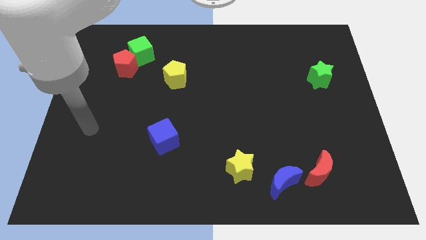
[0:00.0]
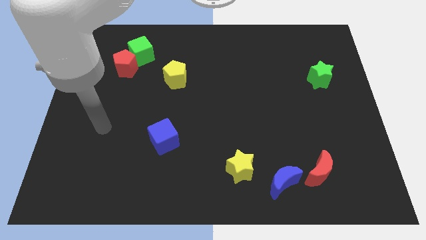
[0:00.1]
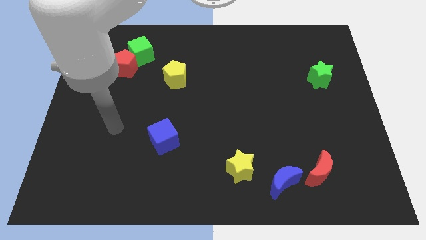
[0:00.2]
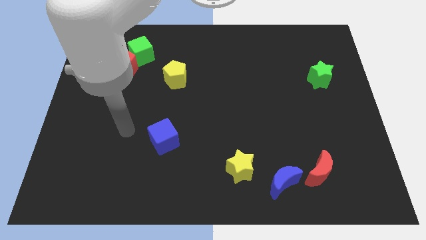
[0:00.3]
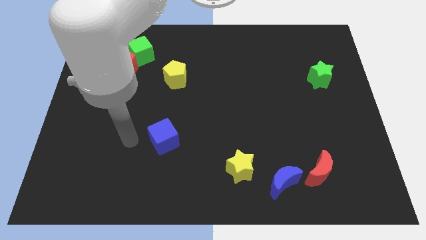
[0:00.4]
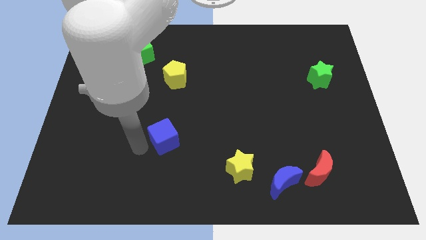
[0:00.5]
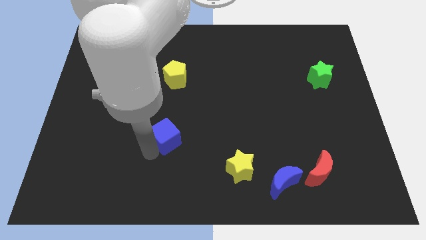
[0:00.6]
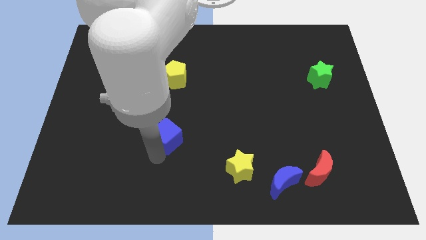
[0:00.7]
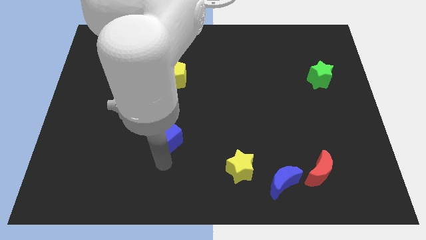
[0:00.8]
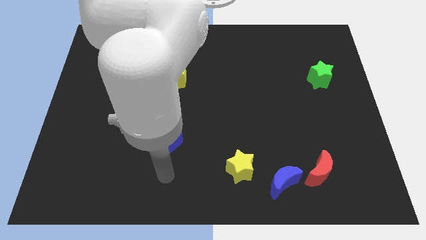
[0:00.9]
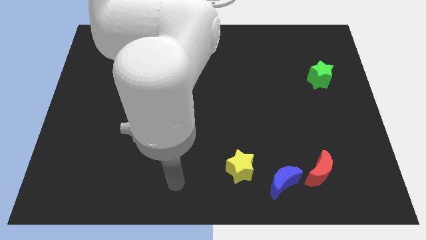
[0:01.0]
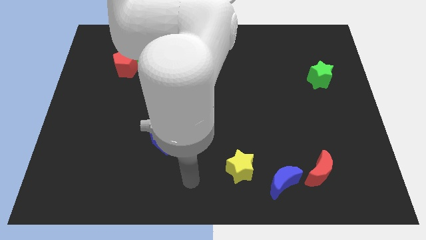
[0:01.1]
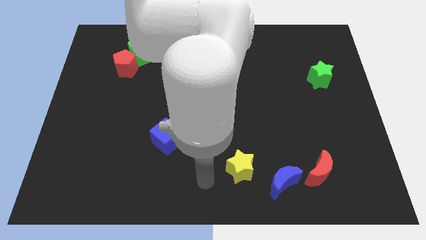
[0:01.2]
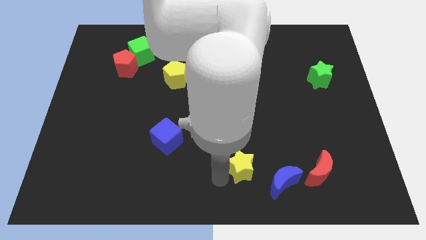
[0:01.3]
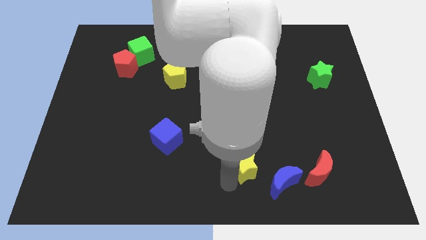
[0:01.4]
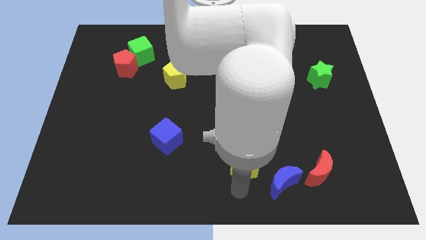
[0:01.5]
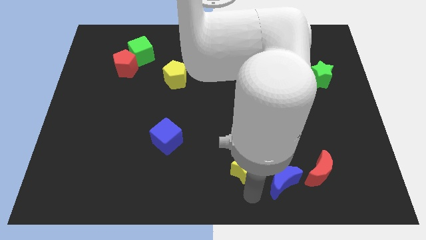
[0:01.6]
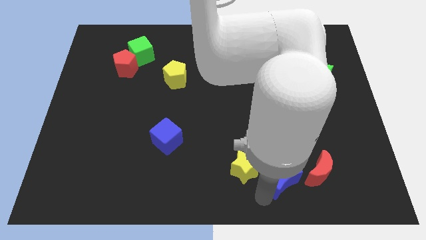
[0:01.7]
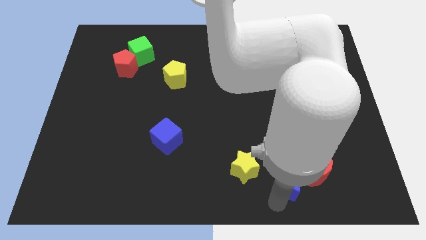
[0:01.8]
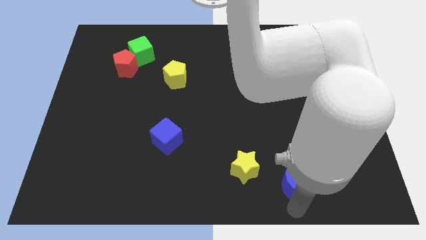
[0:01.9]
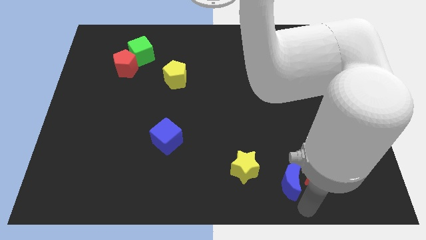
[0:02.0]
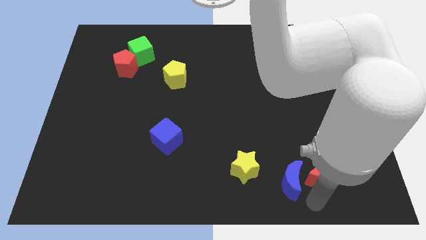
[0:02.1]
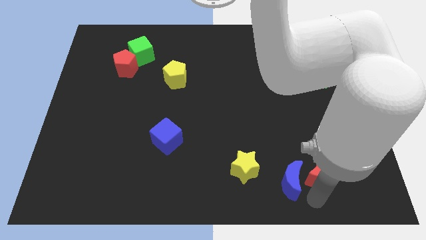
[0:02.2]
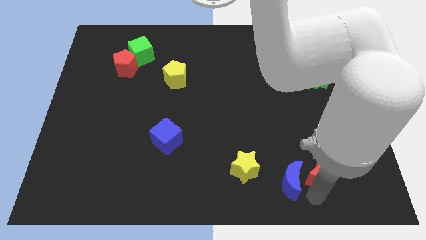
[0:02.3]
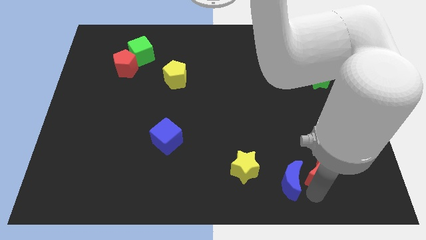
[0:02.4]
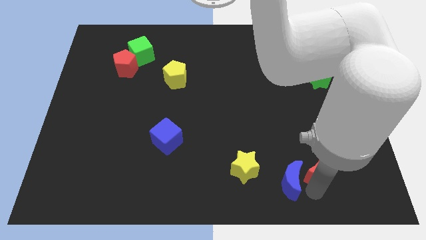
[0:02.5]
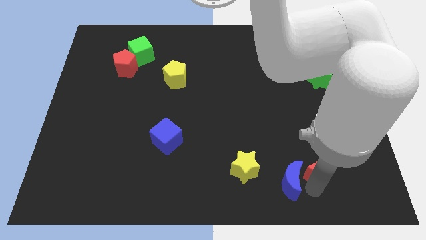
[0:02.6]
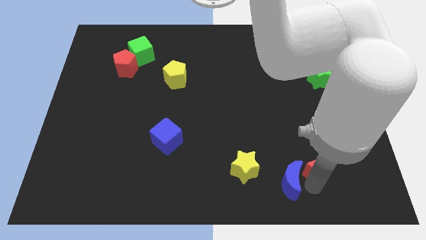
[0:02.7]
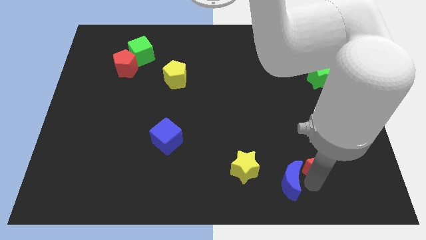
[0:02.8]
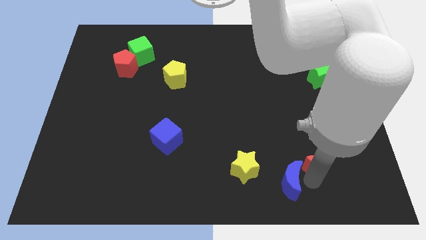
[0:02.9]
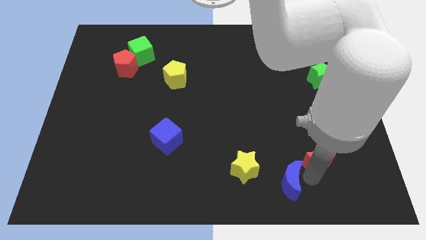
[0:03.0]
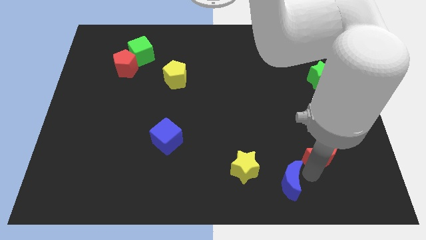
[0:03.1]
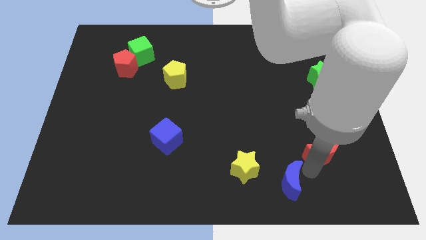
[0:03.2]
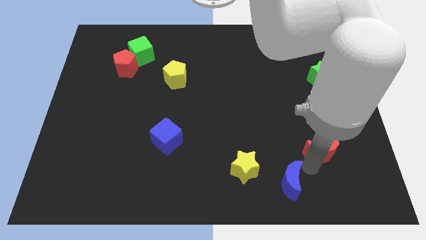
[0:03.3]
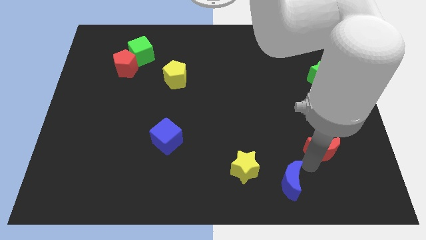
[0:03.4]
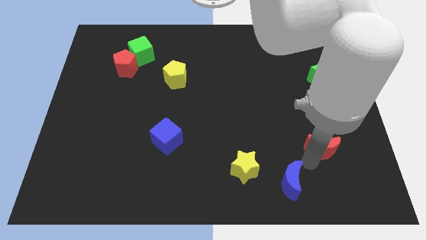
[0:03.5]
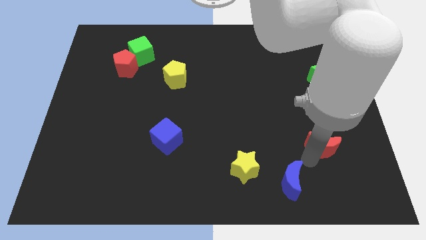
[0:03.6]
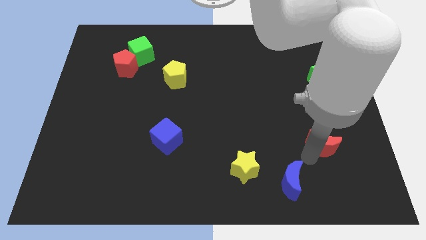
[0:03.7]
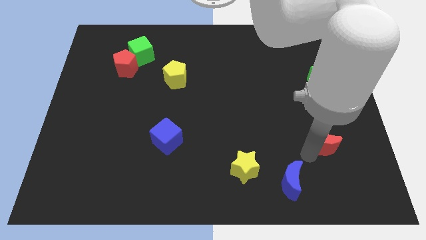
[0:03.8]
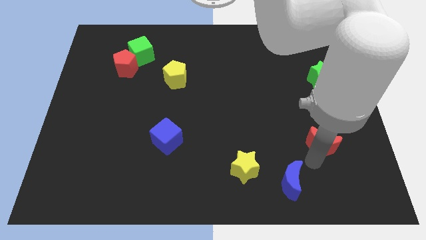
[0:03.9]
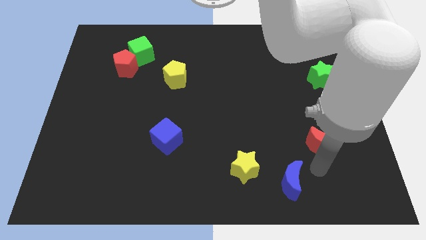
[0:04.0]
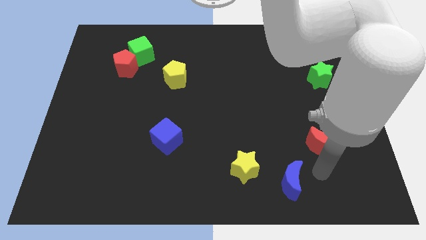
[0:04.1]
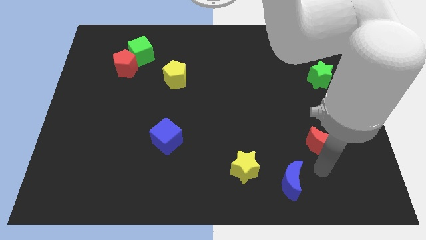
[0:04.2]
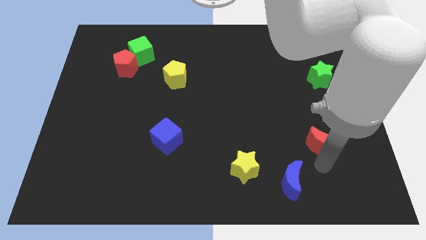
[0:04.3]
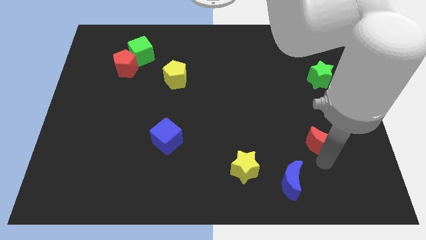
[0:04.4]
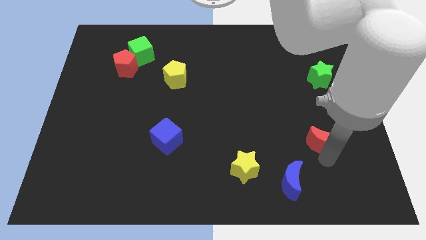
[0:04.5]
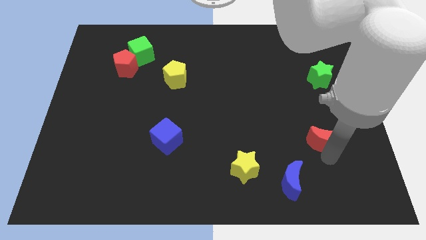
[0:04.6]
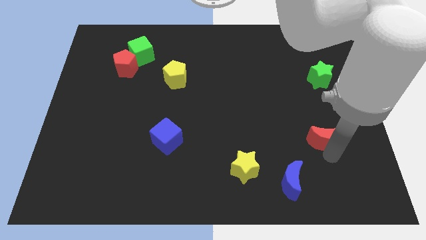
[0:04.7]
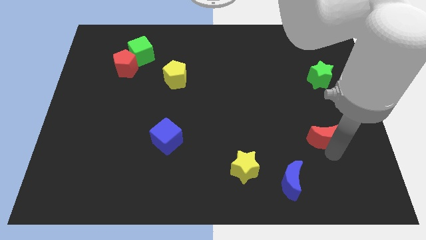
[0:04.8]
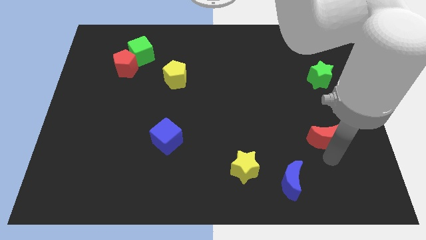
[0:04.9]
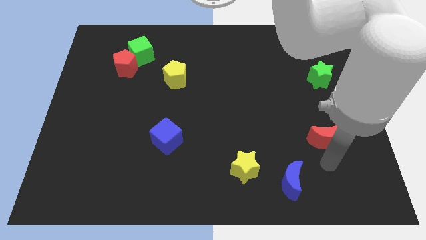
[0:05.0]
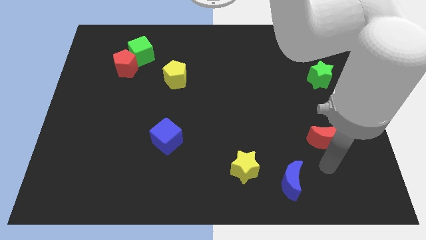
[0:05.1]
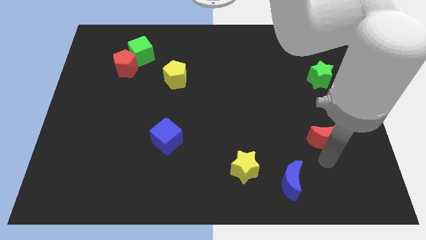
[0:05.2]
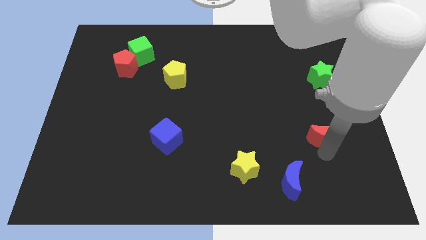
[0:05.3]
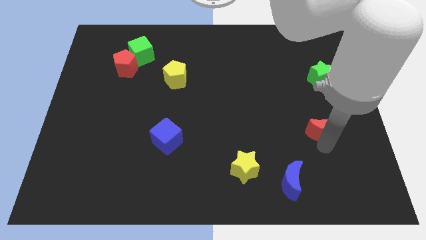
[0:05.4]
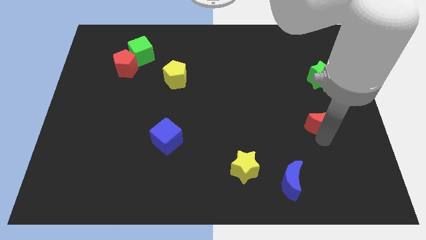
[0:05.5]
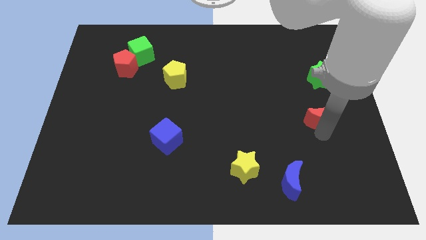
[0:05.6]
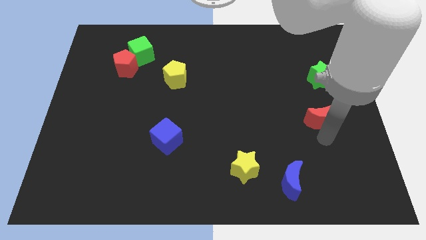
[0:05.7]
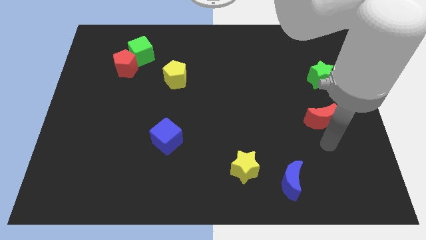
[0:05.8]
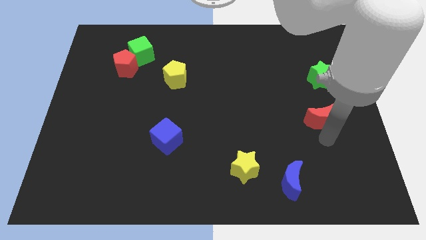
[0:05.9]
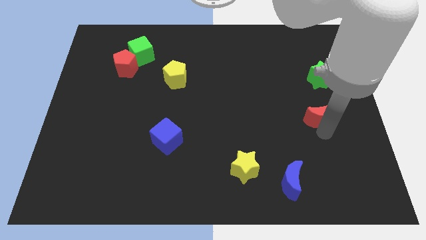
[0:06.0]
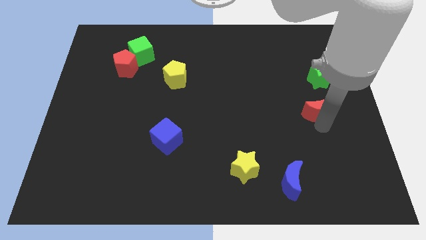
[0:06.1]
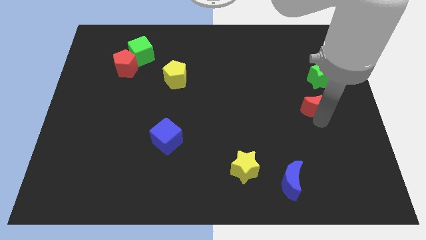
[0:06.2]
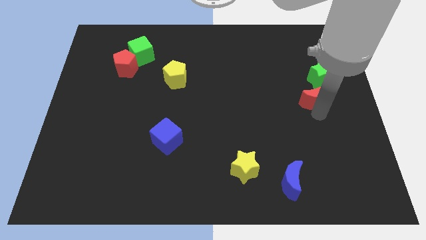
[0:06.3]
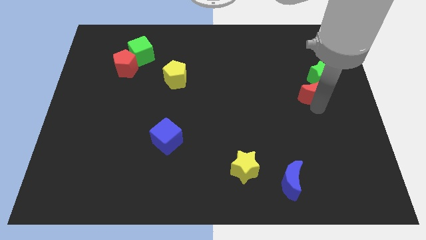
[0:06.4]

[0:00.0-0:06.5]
slide the red moon up

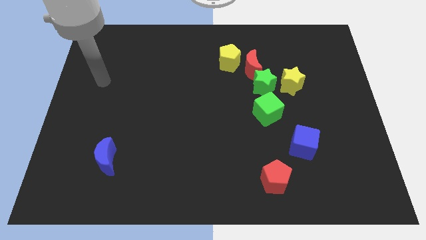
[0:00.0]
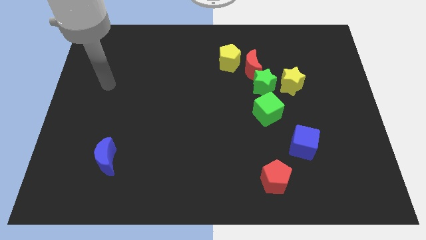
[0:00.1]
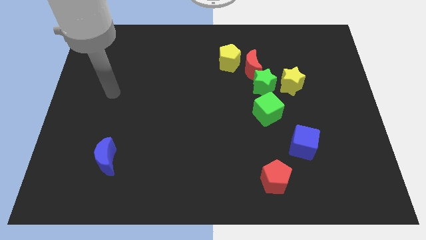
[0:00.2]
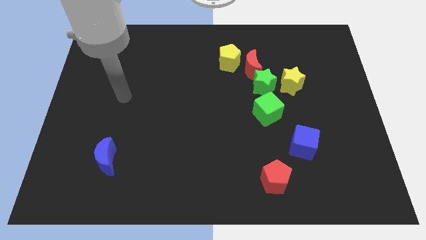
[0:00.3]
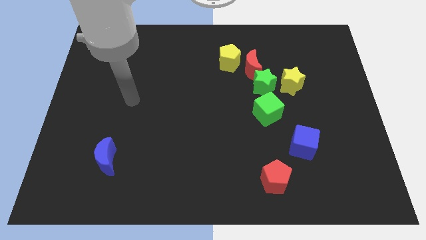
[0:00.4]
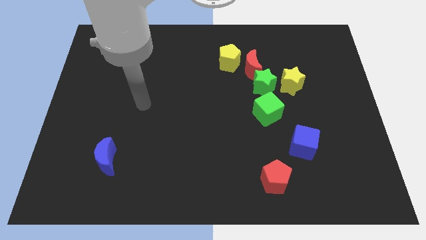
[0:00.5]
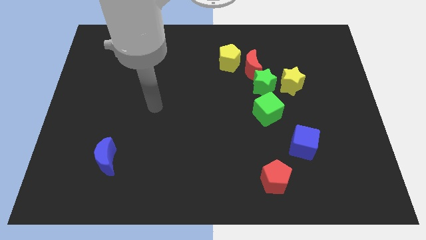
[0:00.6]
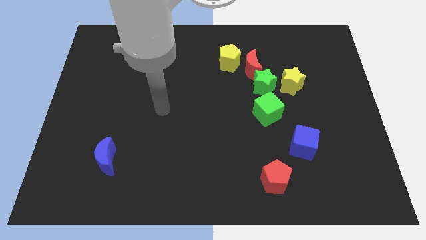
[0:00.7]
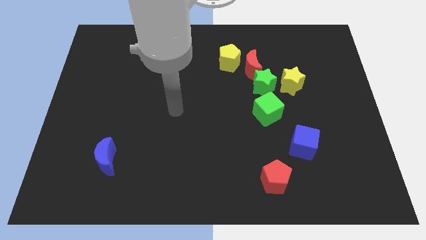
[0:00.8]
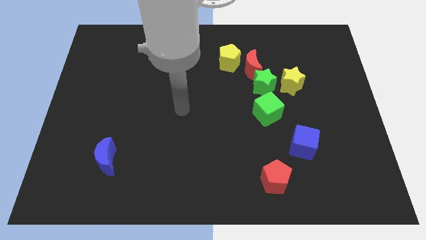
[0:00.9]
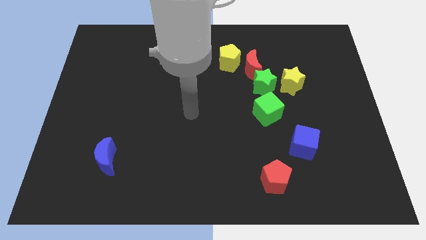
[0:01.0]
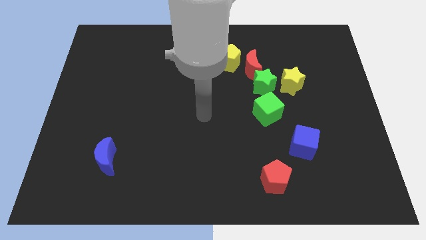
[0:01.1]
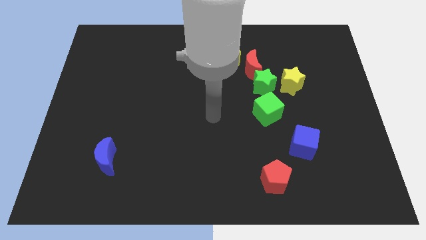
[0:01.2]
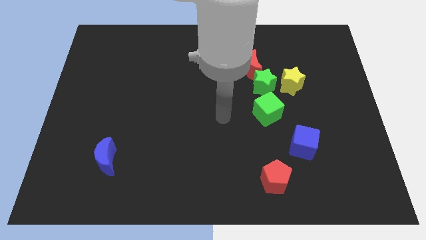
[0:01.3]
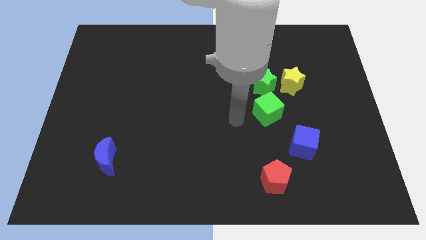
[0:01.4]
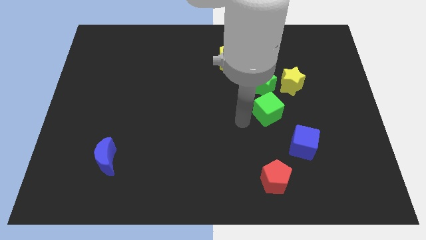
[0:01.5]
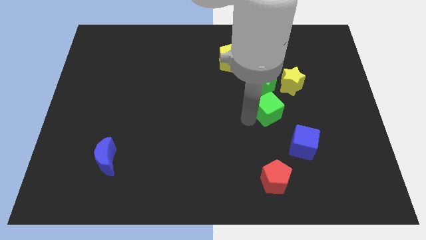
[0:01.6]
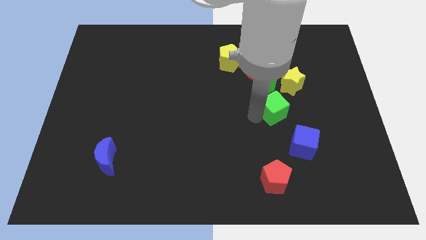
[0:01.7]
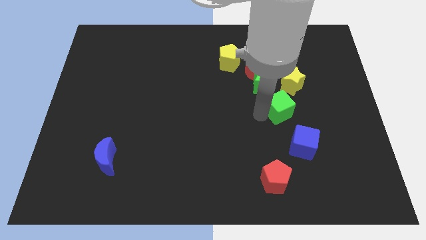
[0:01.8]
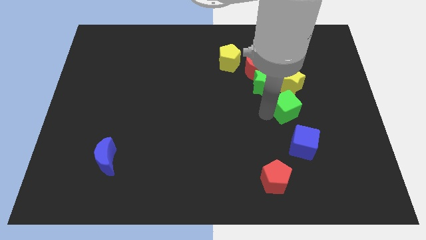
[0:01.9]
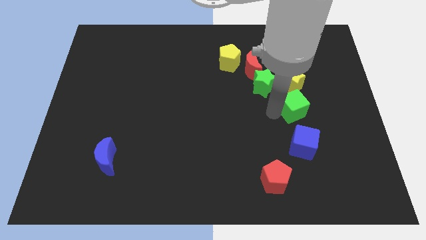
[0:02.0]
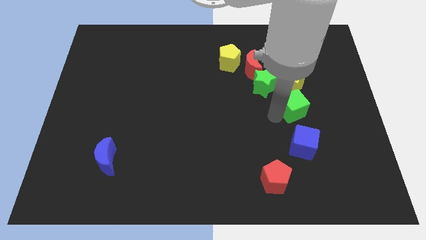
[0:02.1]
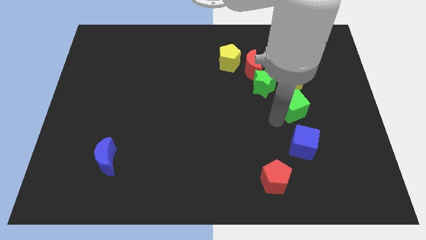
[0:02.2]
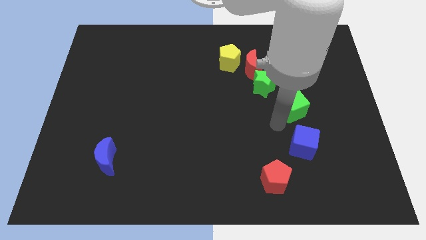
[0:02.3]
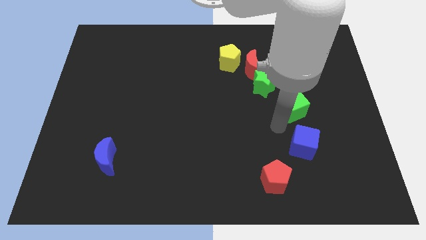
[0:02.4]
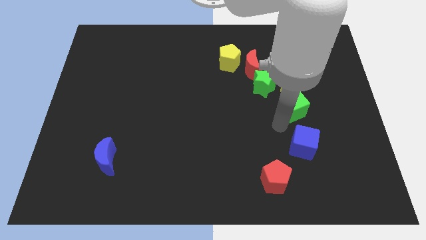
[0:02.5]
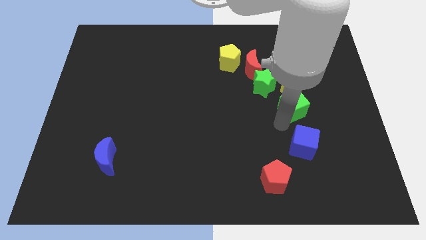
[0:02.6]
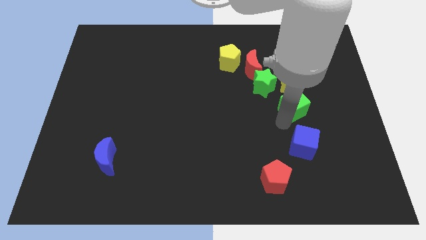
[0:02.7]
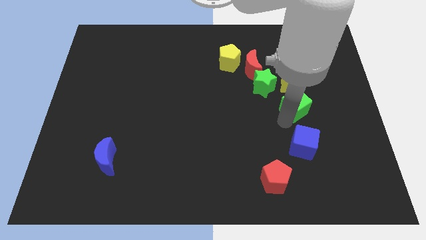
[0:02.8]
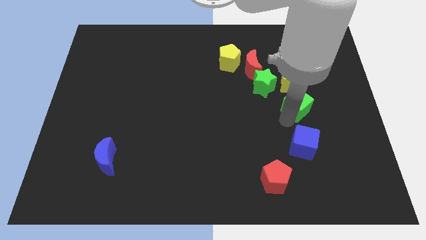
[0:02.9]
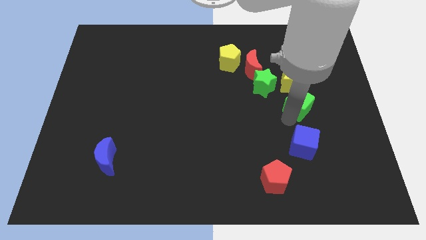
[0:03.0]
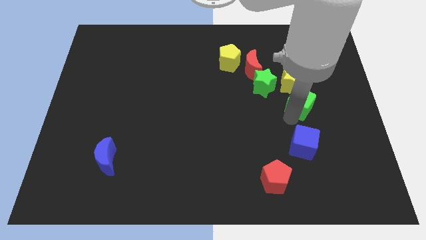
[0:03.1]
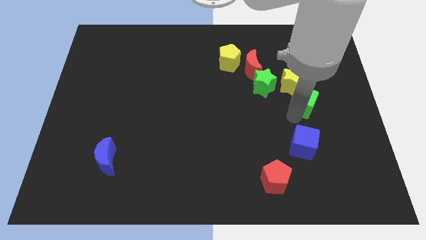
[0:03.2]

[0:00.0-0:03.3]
push the green cube up and then right a little
